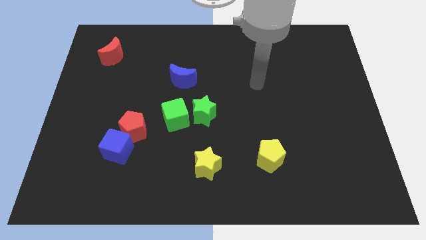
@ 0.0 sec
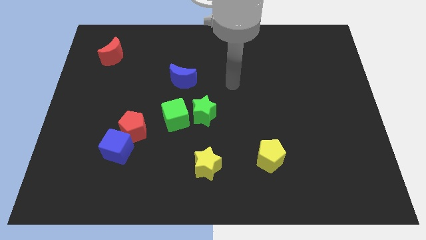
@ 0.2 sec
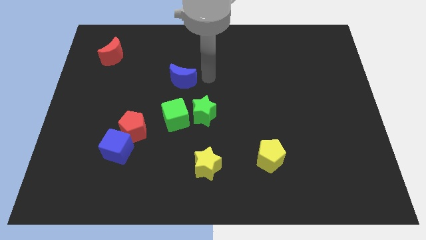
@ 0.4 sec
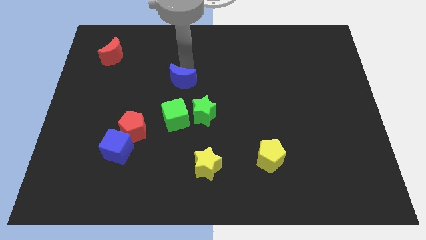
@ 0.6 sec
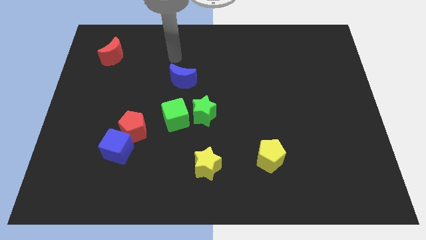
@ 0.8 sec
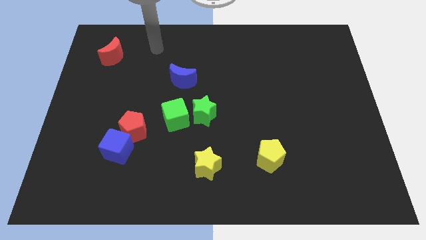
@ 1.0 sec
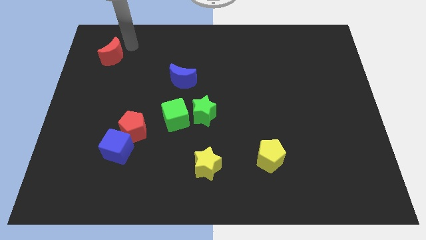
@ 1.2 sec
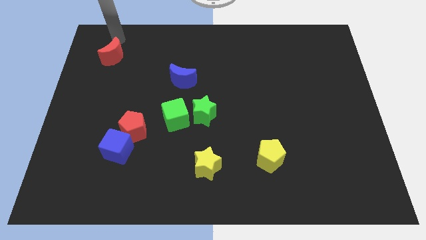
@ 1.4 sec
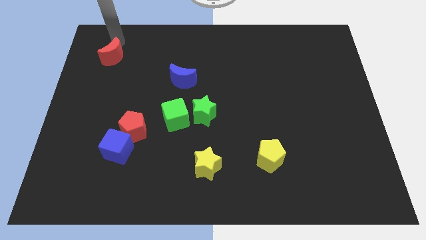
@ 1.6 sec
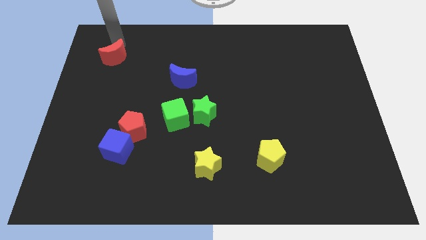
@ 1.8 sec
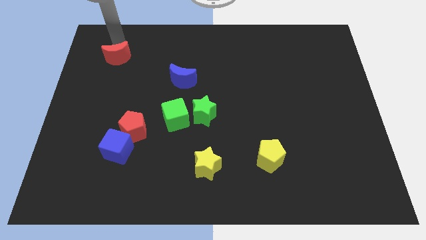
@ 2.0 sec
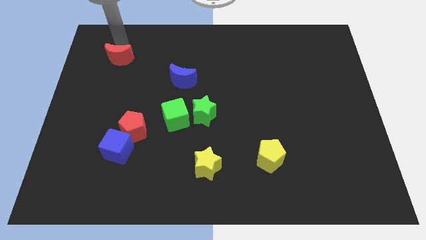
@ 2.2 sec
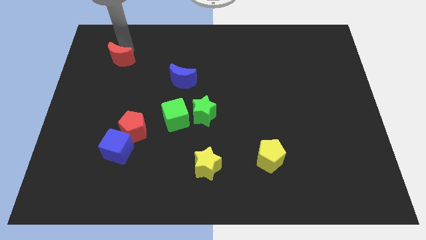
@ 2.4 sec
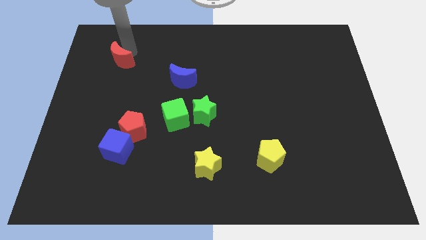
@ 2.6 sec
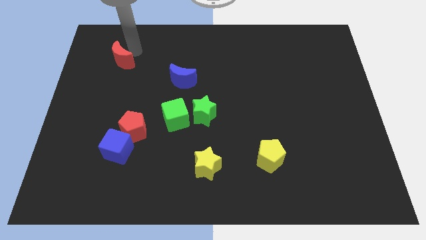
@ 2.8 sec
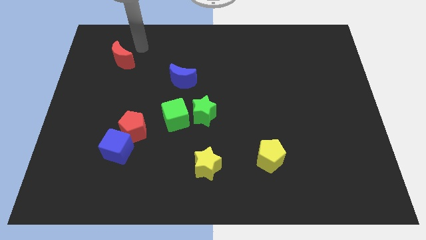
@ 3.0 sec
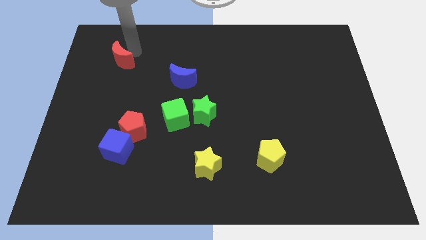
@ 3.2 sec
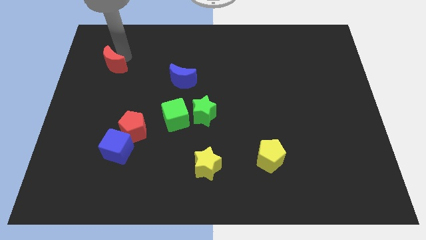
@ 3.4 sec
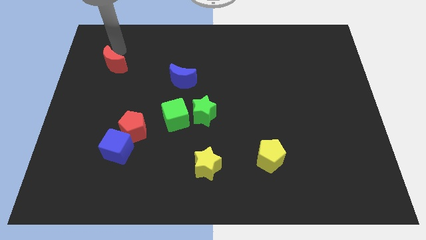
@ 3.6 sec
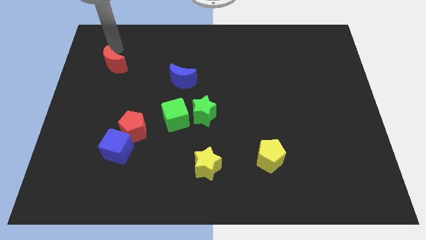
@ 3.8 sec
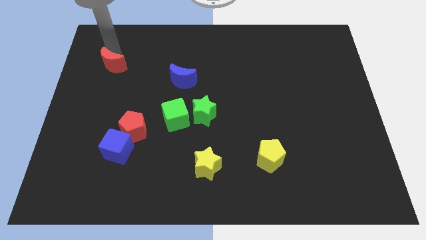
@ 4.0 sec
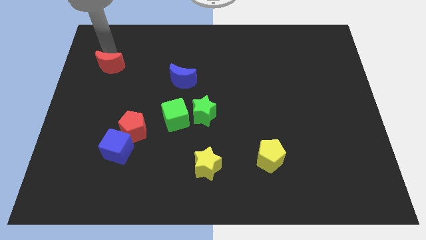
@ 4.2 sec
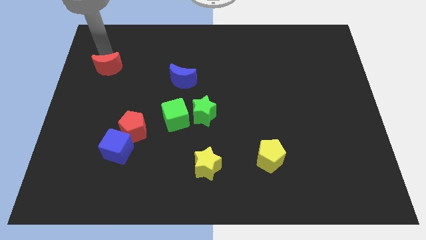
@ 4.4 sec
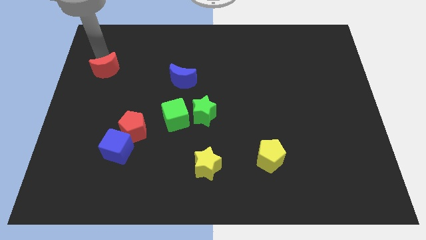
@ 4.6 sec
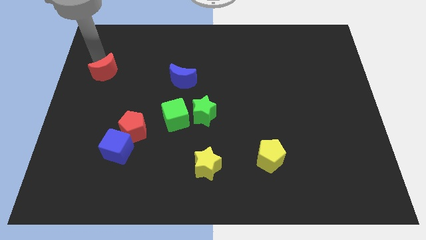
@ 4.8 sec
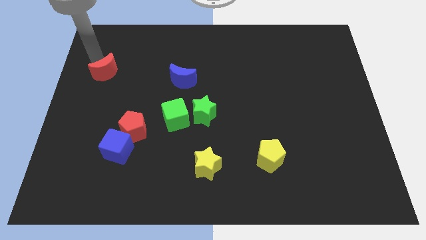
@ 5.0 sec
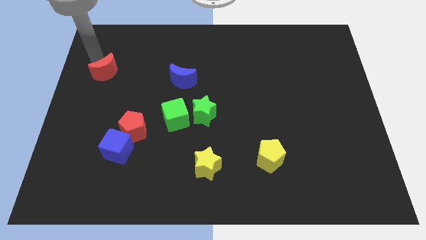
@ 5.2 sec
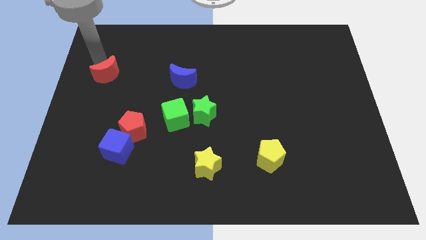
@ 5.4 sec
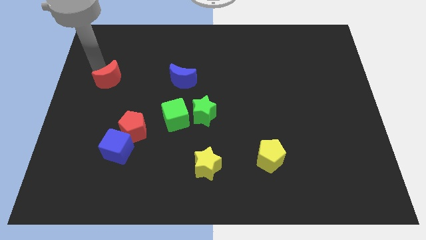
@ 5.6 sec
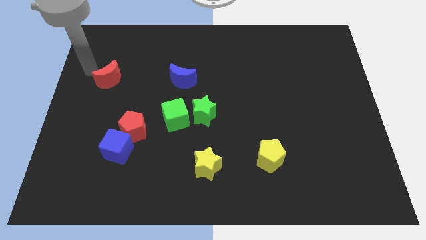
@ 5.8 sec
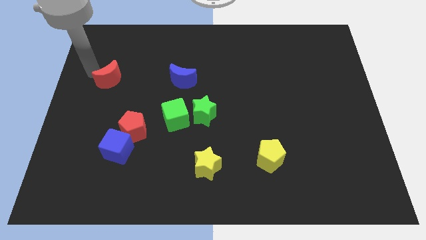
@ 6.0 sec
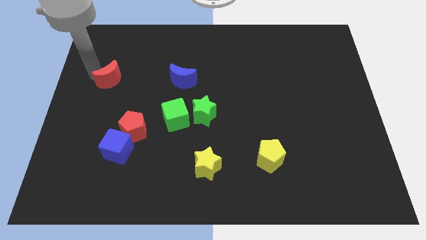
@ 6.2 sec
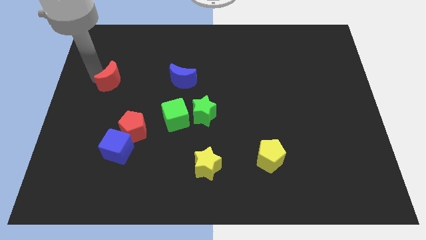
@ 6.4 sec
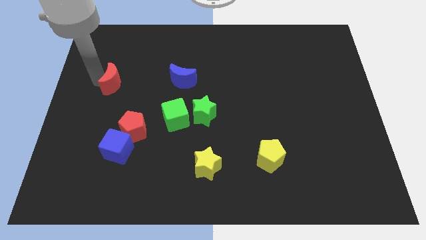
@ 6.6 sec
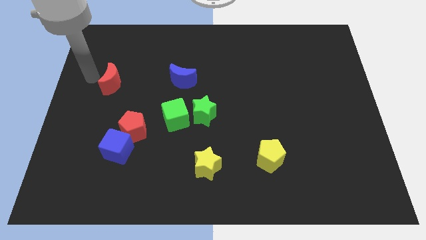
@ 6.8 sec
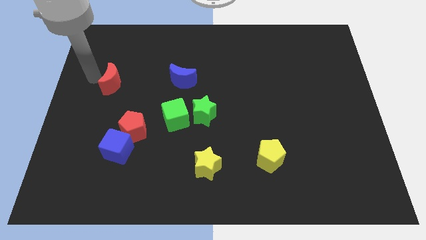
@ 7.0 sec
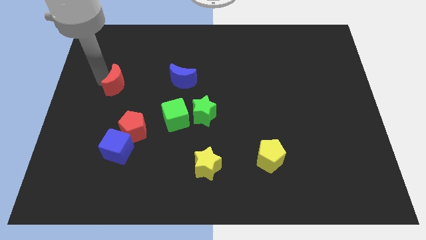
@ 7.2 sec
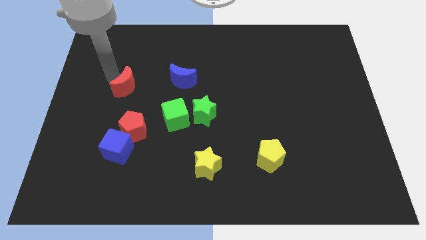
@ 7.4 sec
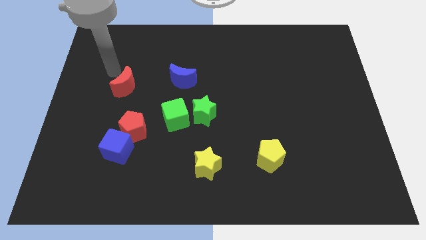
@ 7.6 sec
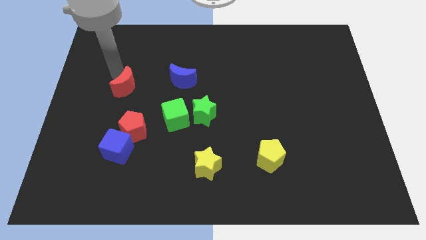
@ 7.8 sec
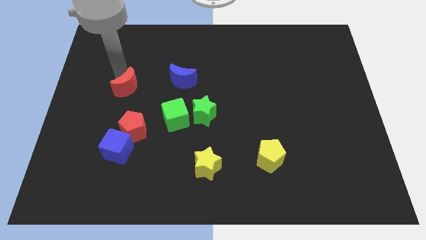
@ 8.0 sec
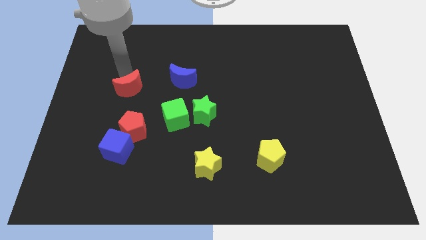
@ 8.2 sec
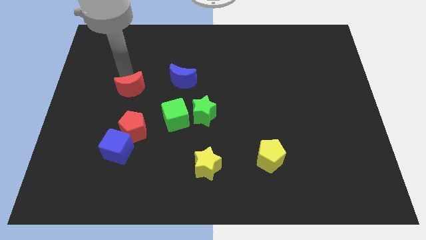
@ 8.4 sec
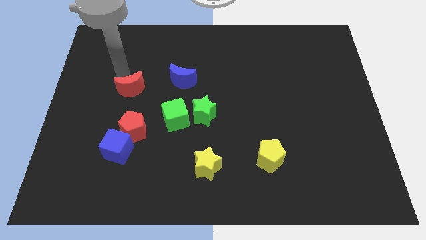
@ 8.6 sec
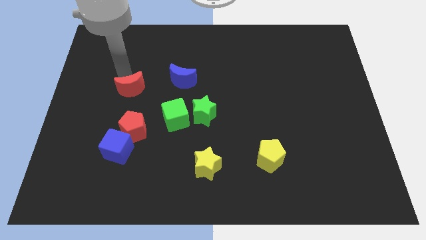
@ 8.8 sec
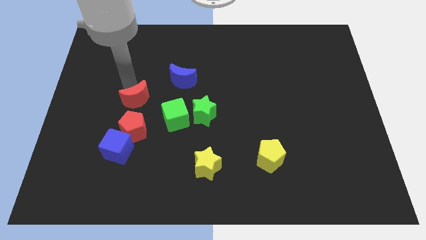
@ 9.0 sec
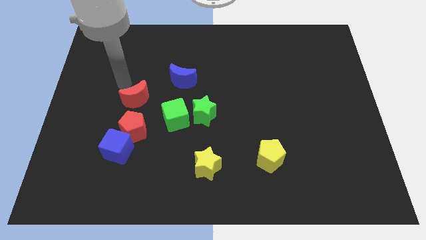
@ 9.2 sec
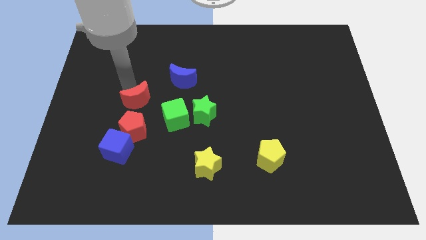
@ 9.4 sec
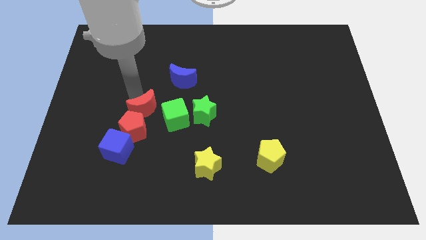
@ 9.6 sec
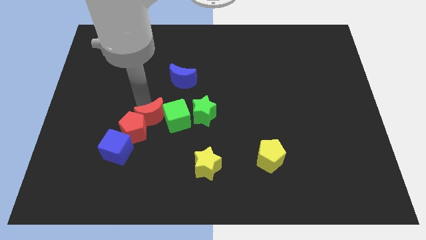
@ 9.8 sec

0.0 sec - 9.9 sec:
slide the red moon to the bottom left of the green cube

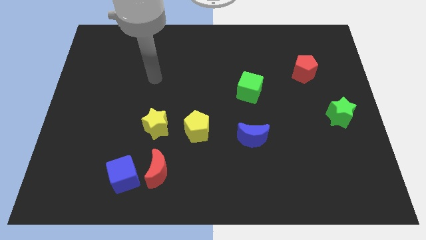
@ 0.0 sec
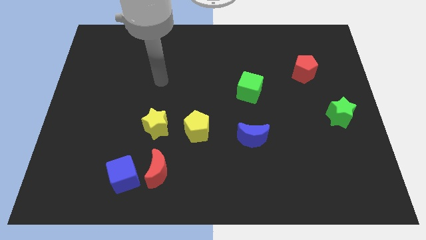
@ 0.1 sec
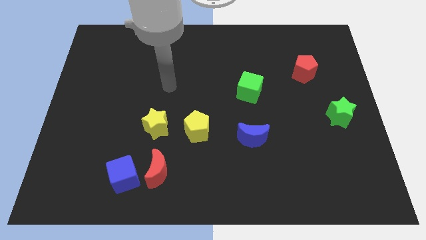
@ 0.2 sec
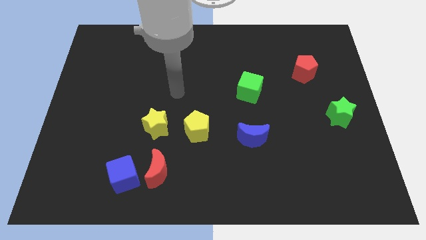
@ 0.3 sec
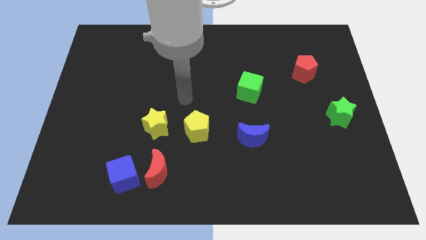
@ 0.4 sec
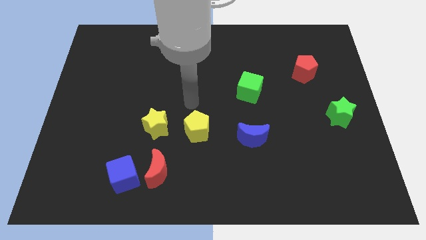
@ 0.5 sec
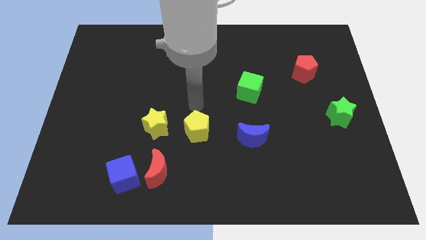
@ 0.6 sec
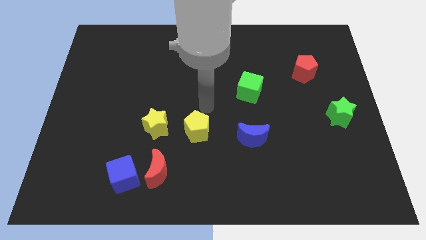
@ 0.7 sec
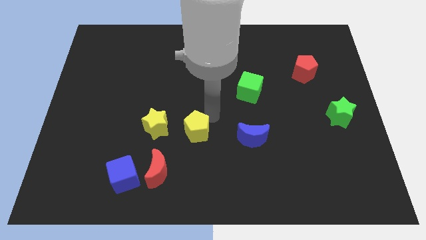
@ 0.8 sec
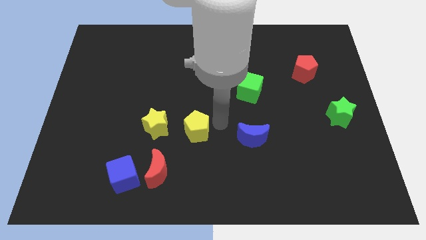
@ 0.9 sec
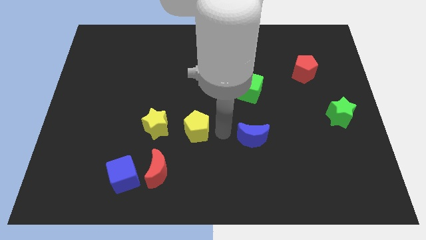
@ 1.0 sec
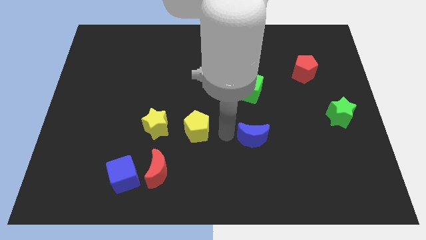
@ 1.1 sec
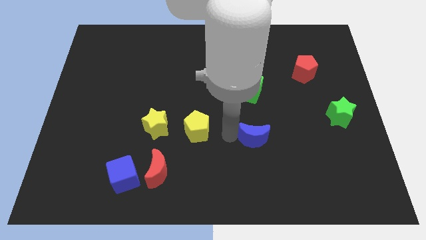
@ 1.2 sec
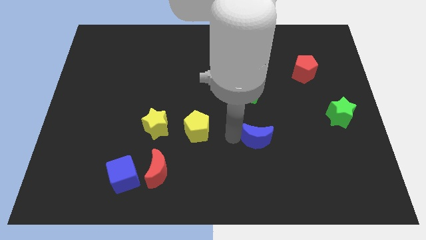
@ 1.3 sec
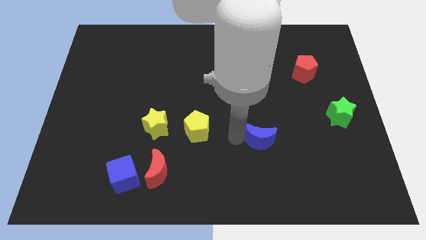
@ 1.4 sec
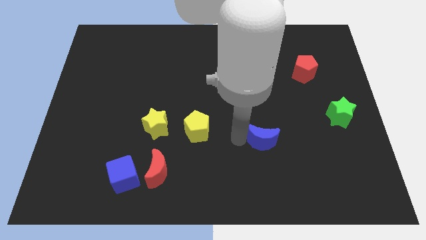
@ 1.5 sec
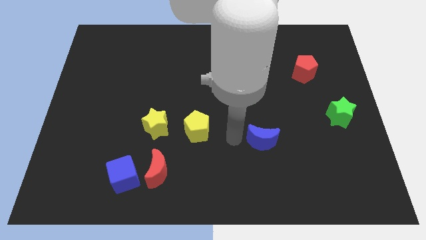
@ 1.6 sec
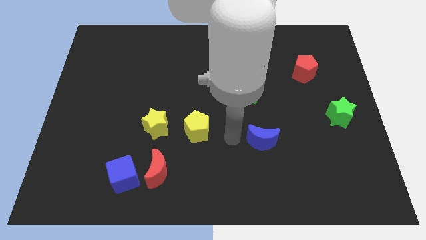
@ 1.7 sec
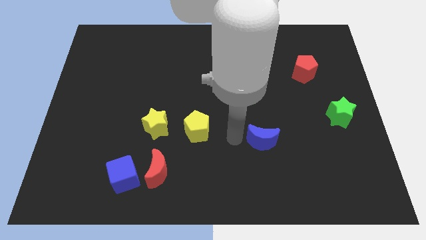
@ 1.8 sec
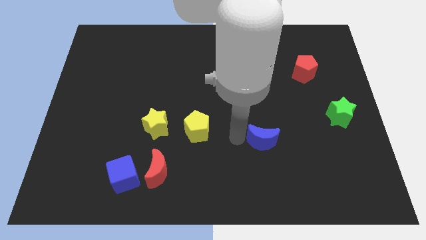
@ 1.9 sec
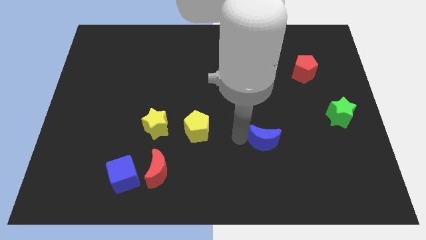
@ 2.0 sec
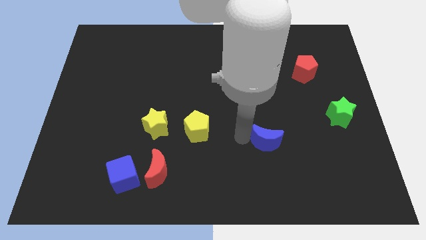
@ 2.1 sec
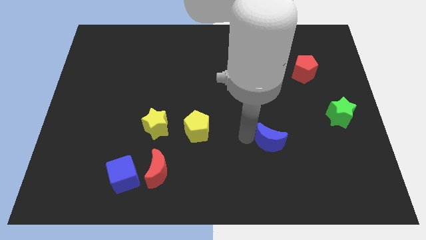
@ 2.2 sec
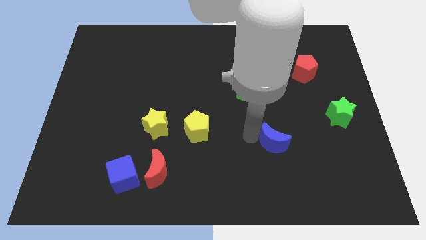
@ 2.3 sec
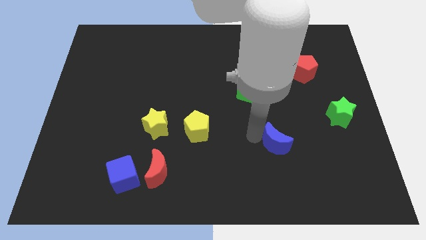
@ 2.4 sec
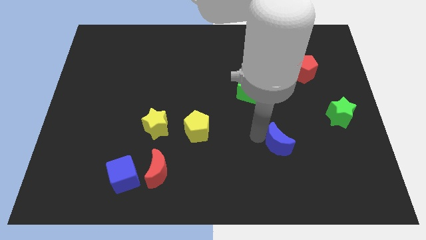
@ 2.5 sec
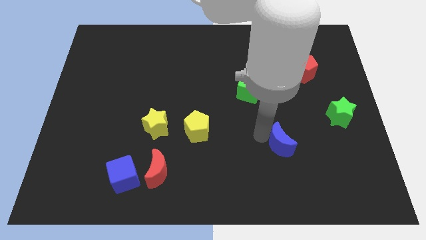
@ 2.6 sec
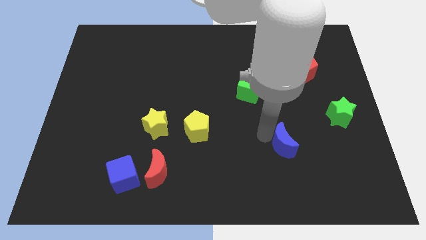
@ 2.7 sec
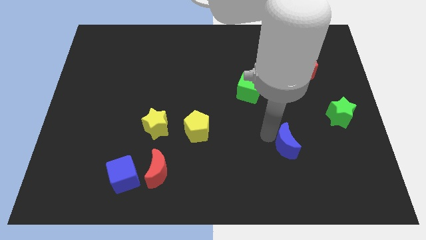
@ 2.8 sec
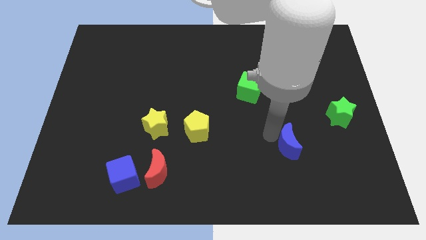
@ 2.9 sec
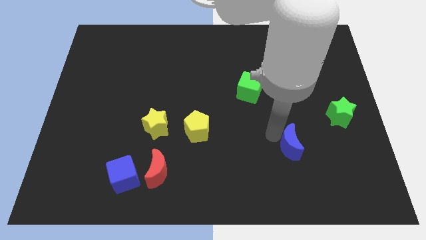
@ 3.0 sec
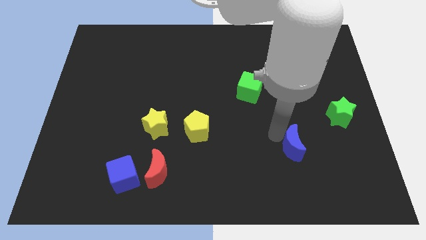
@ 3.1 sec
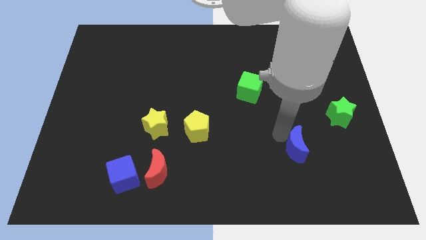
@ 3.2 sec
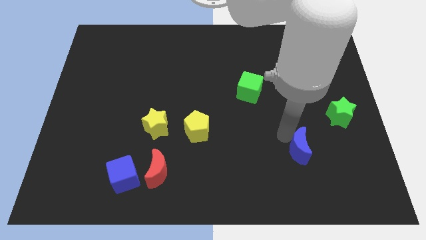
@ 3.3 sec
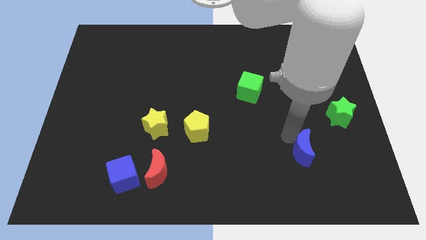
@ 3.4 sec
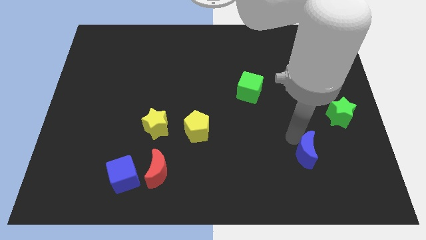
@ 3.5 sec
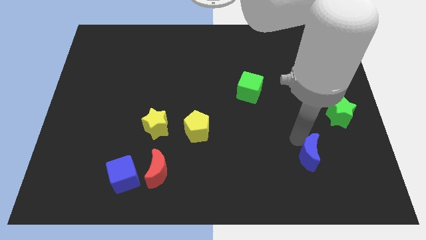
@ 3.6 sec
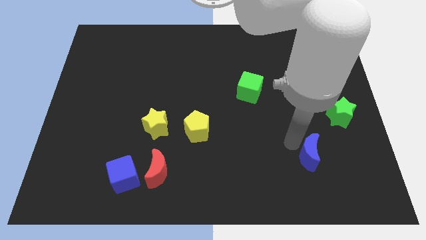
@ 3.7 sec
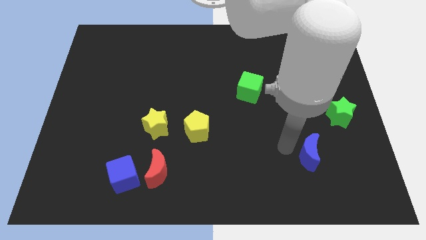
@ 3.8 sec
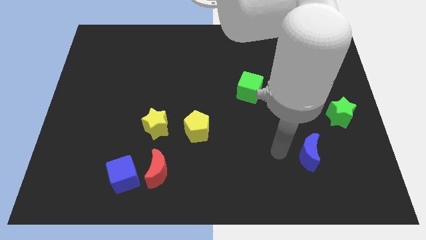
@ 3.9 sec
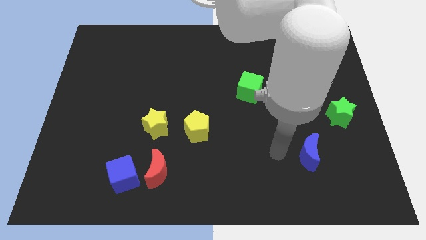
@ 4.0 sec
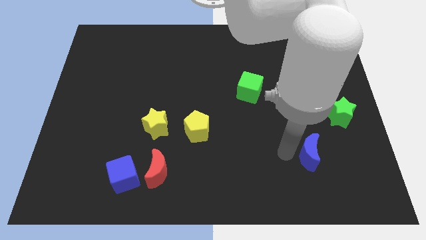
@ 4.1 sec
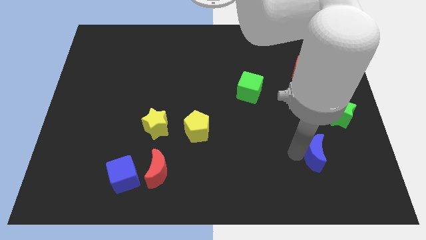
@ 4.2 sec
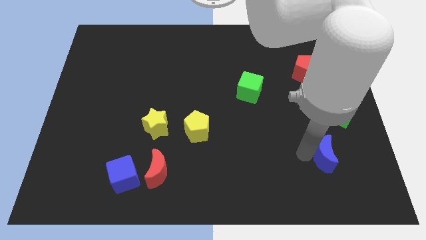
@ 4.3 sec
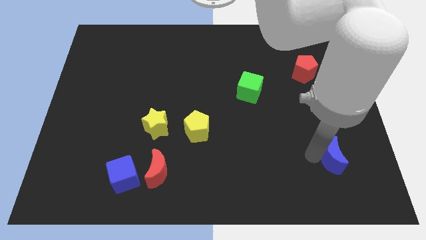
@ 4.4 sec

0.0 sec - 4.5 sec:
put the blue moon to the bottom of the green star
